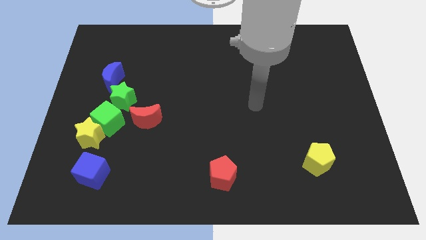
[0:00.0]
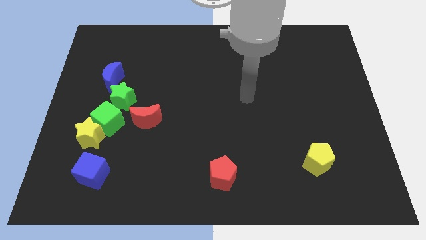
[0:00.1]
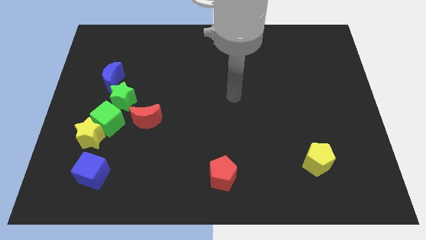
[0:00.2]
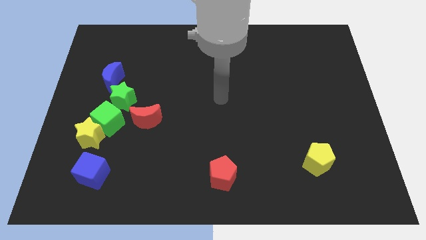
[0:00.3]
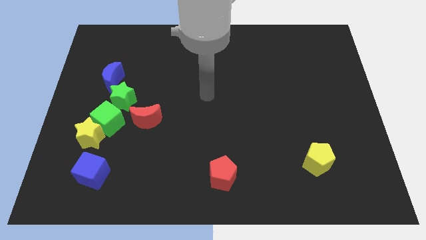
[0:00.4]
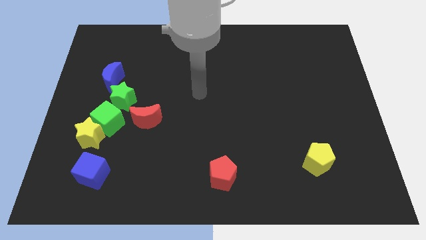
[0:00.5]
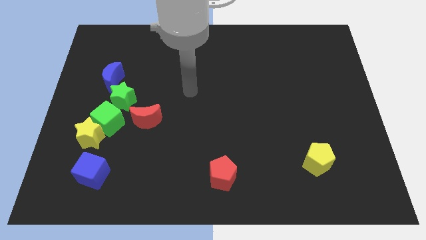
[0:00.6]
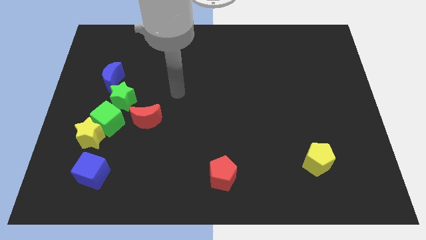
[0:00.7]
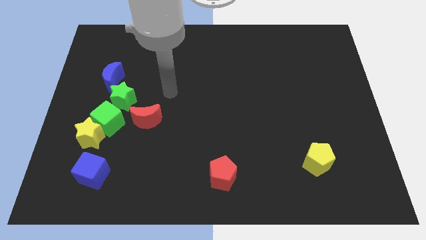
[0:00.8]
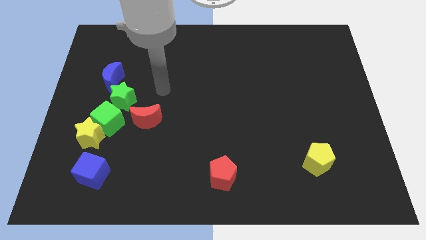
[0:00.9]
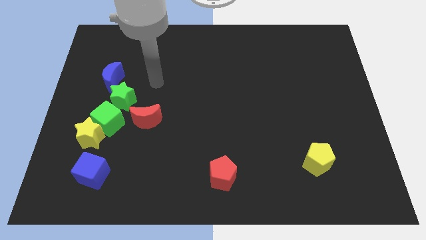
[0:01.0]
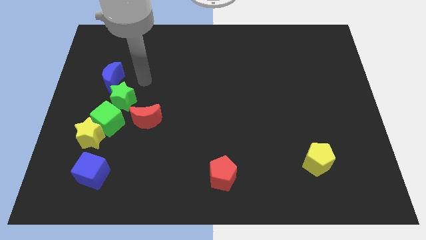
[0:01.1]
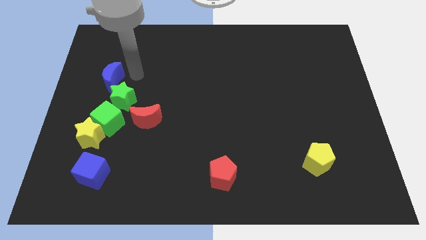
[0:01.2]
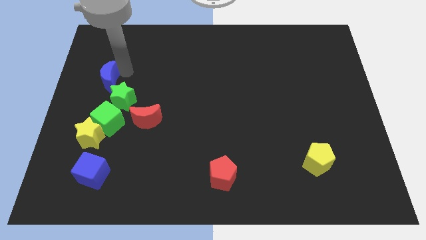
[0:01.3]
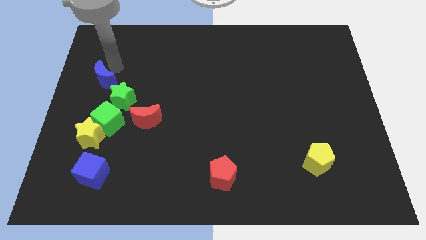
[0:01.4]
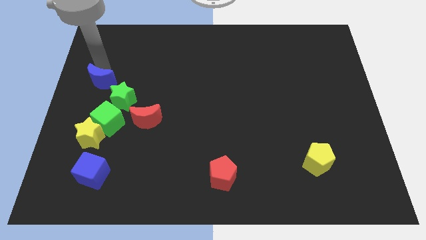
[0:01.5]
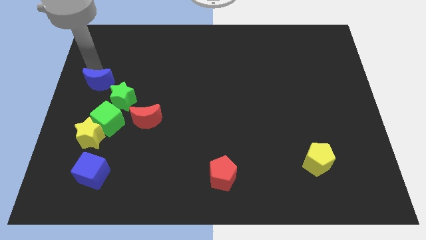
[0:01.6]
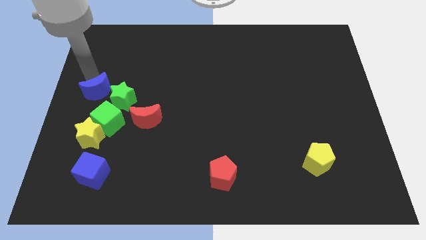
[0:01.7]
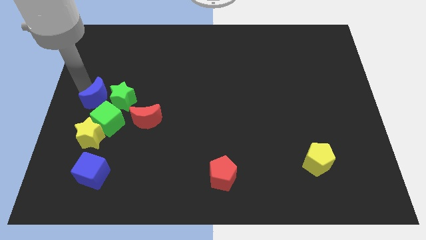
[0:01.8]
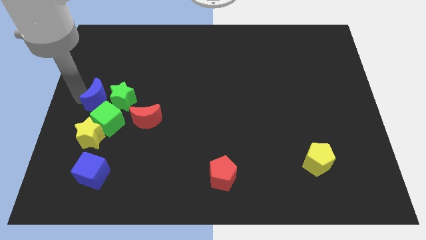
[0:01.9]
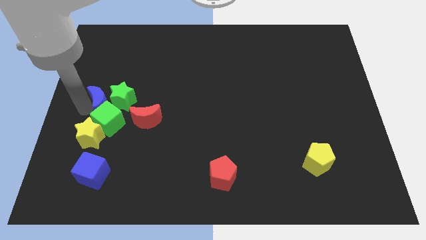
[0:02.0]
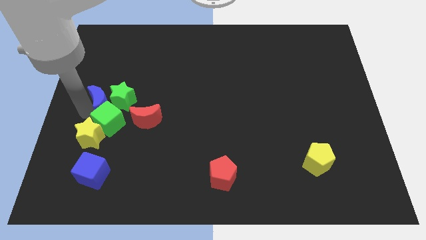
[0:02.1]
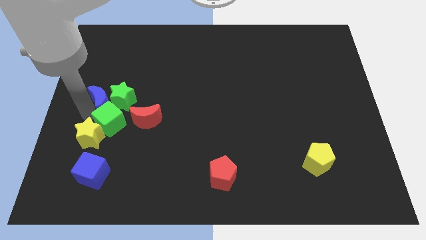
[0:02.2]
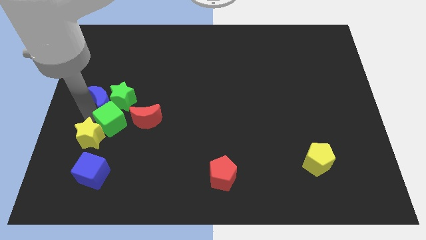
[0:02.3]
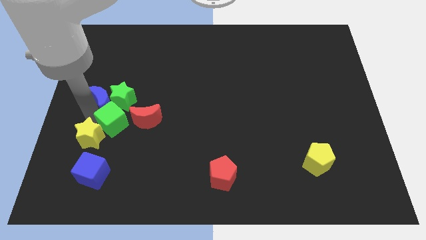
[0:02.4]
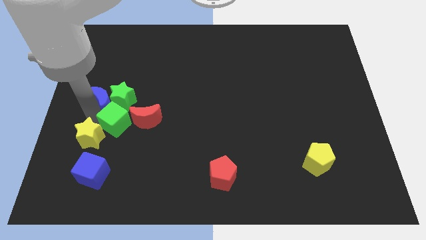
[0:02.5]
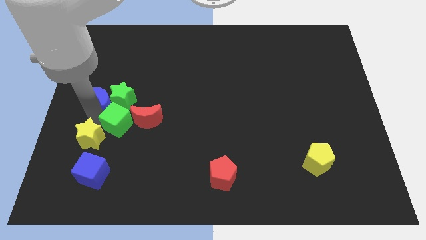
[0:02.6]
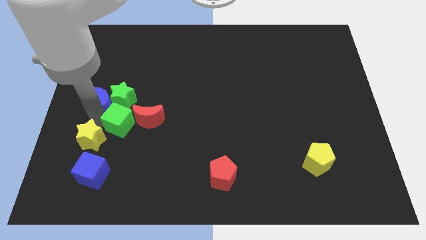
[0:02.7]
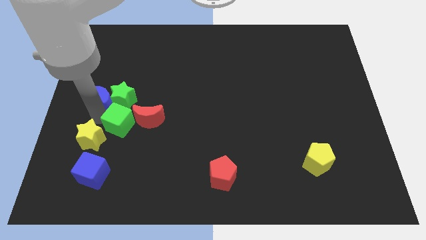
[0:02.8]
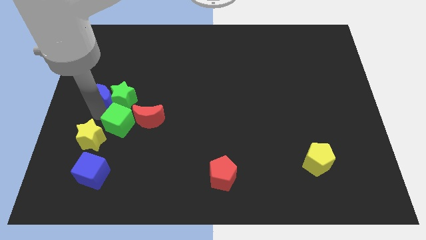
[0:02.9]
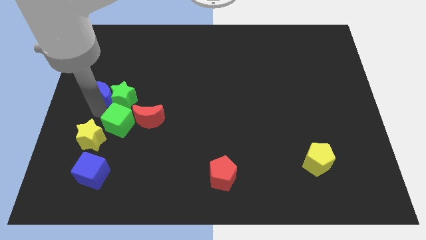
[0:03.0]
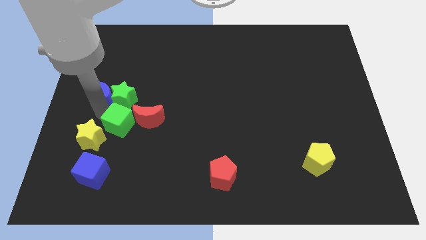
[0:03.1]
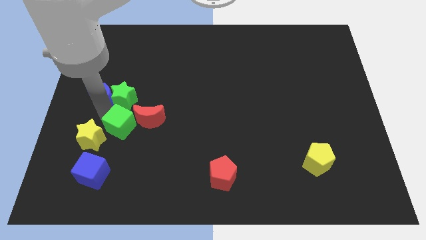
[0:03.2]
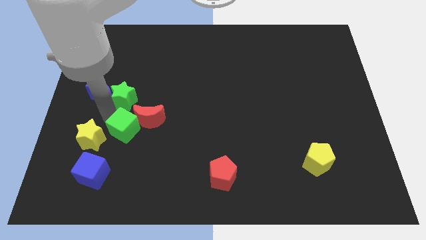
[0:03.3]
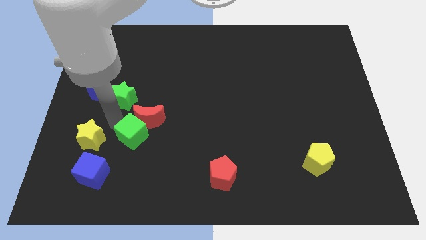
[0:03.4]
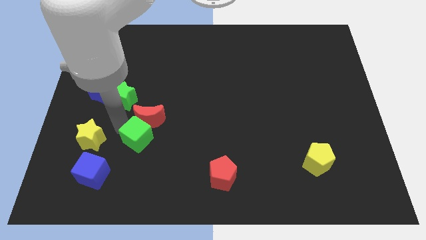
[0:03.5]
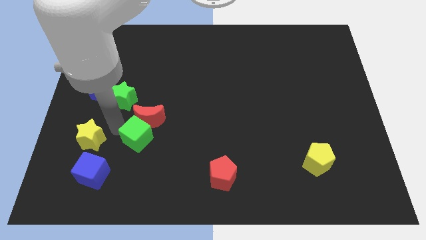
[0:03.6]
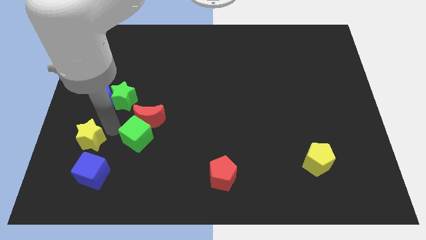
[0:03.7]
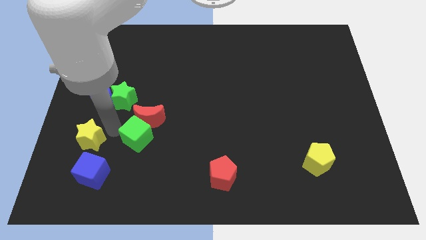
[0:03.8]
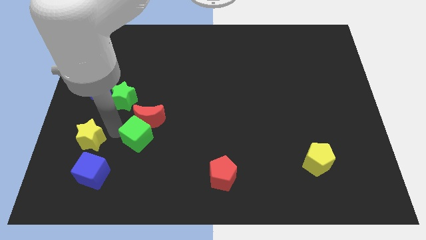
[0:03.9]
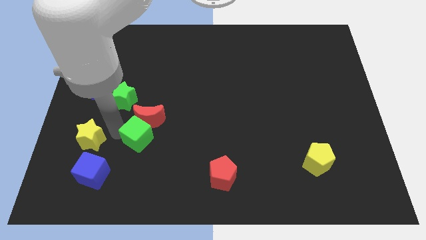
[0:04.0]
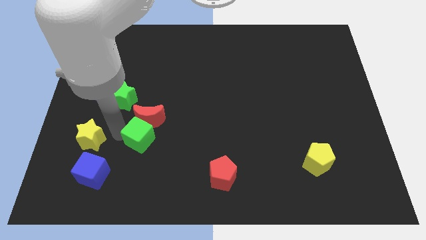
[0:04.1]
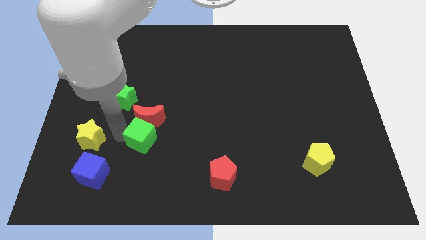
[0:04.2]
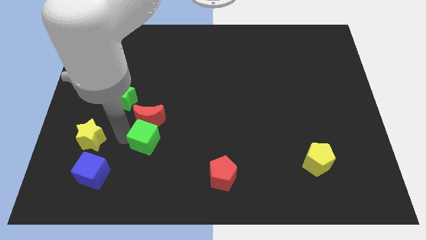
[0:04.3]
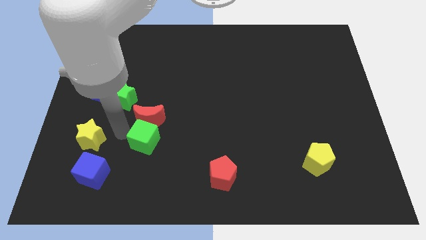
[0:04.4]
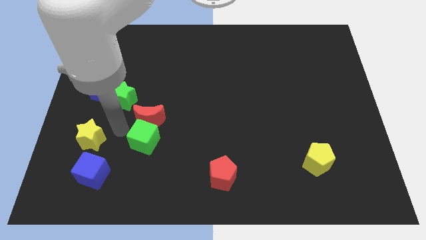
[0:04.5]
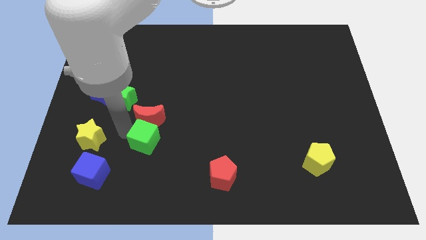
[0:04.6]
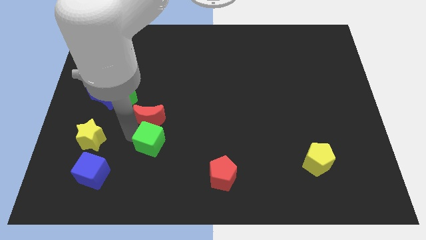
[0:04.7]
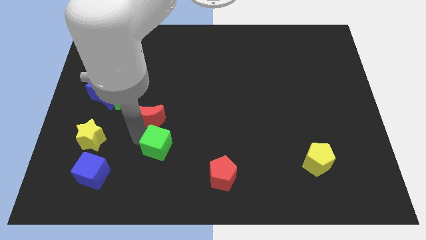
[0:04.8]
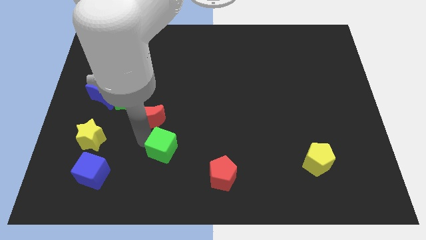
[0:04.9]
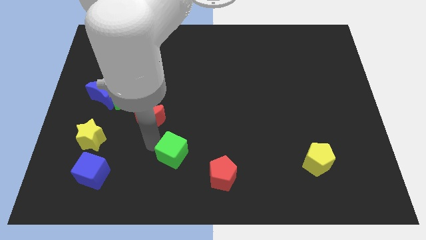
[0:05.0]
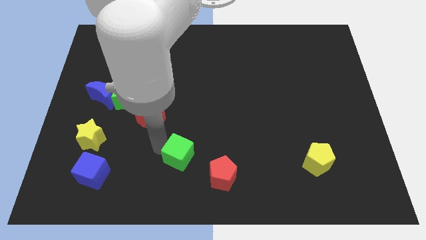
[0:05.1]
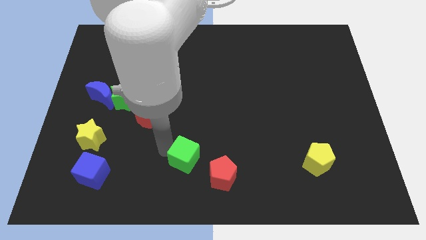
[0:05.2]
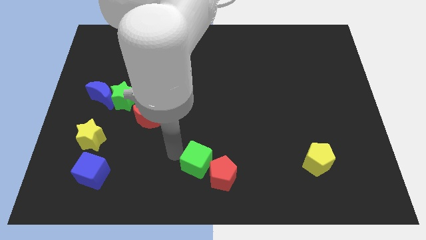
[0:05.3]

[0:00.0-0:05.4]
move the green cube next to the red pentagon

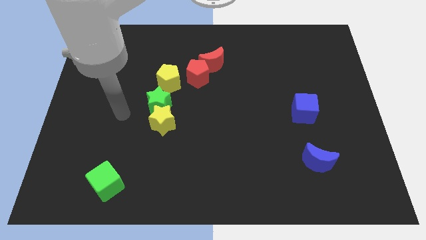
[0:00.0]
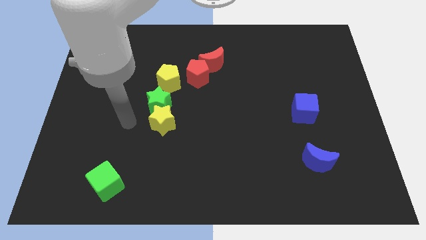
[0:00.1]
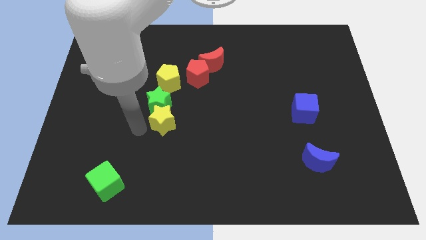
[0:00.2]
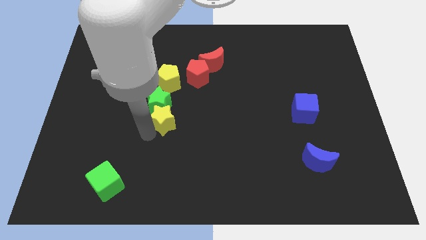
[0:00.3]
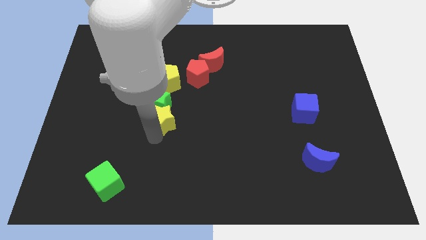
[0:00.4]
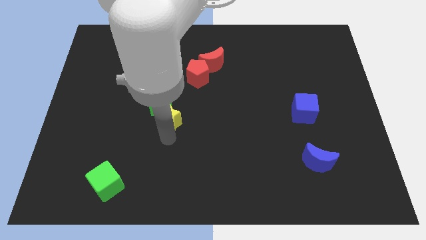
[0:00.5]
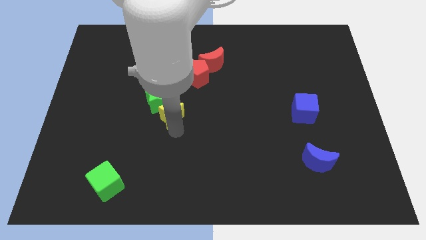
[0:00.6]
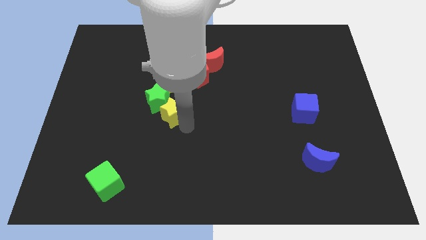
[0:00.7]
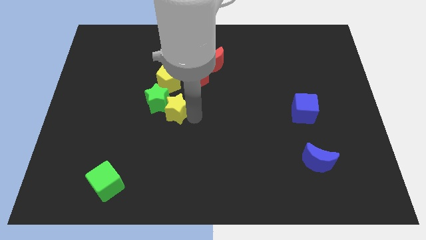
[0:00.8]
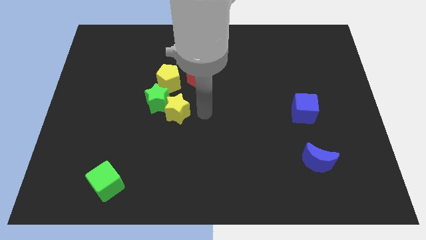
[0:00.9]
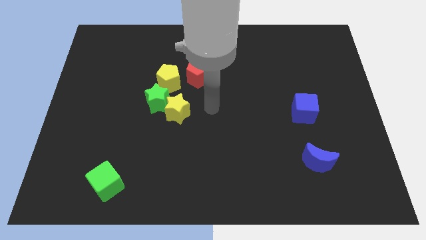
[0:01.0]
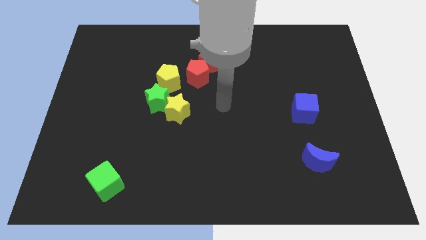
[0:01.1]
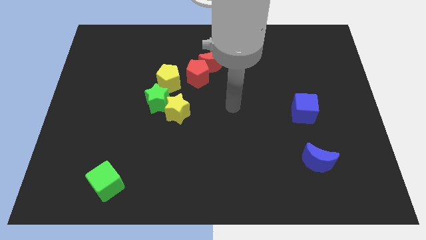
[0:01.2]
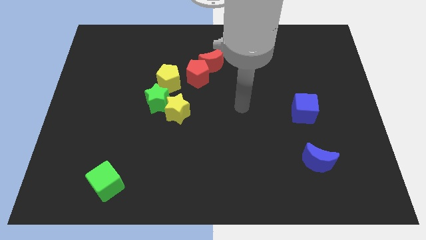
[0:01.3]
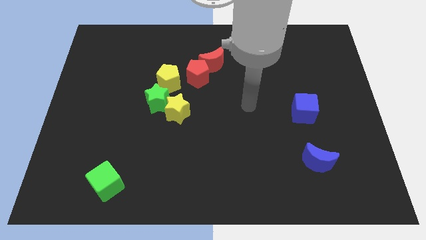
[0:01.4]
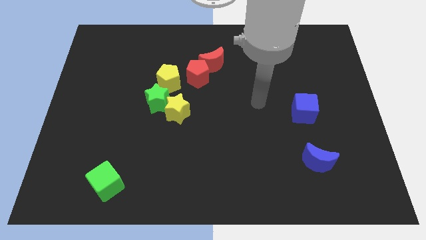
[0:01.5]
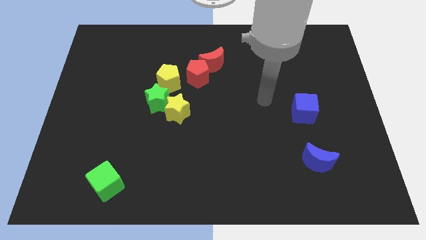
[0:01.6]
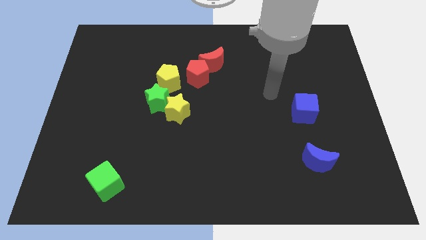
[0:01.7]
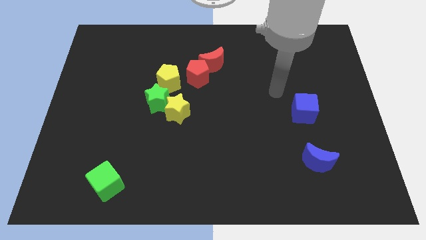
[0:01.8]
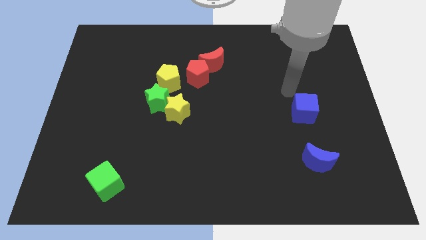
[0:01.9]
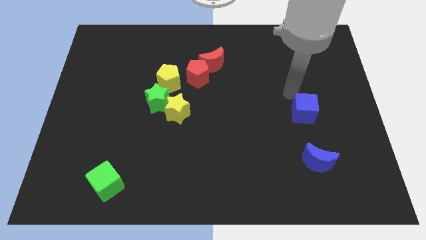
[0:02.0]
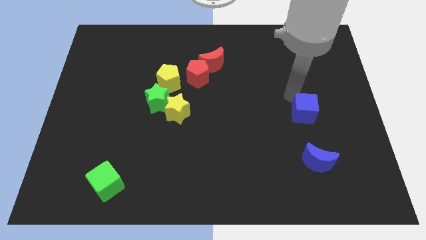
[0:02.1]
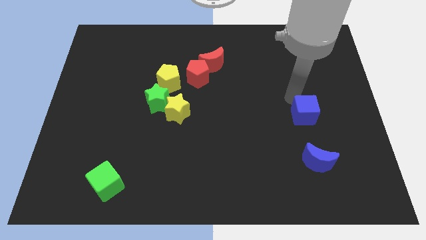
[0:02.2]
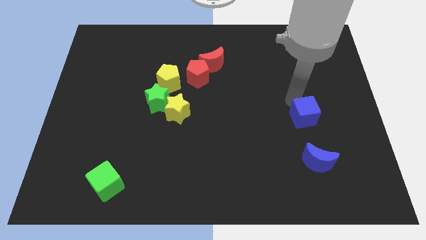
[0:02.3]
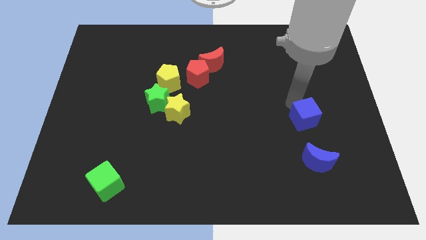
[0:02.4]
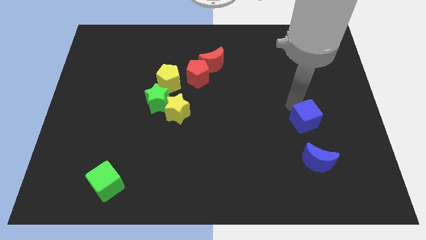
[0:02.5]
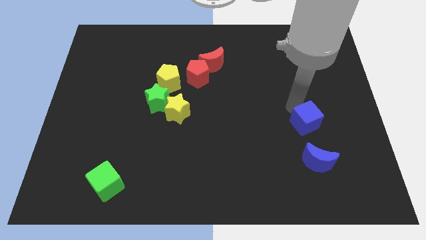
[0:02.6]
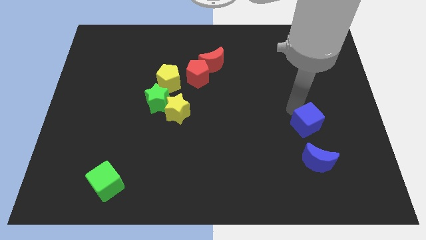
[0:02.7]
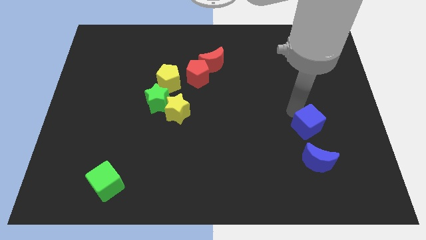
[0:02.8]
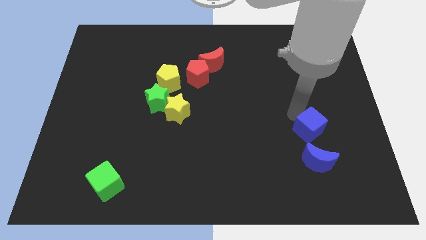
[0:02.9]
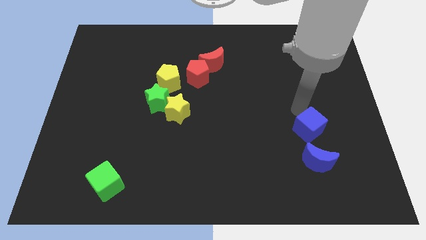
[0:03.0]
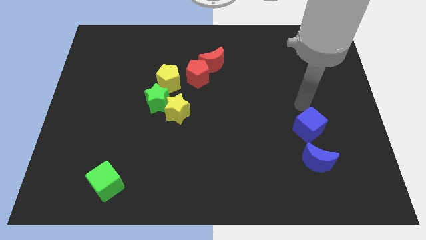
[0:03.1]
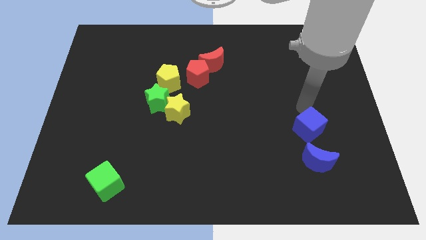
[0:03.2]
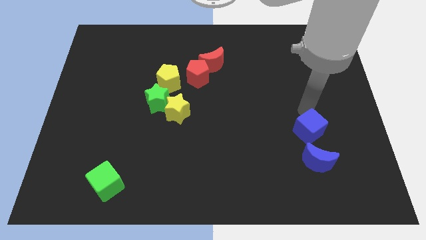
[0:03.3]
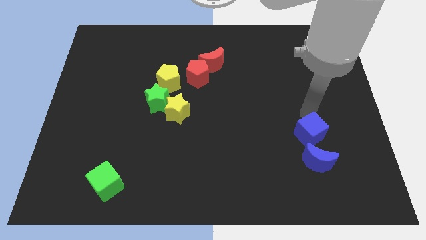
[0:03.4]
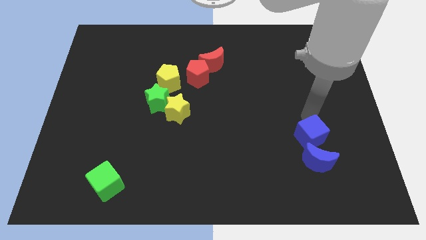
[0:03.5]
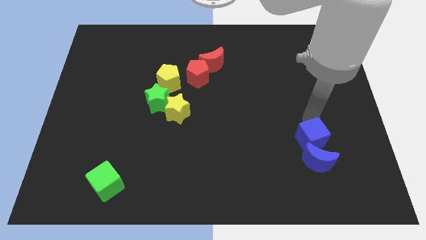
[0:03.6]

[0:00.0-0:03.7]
slide the blue cube towards the blue moon
